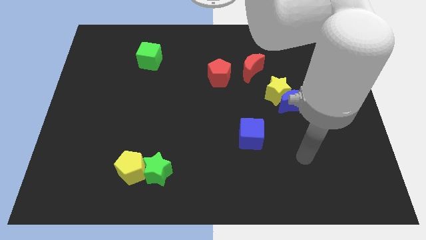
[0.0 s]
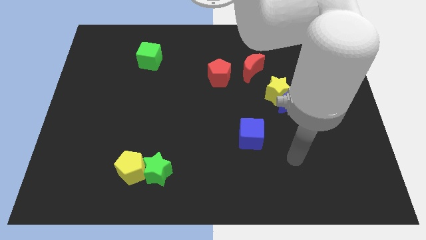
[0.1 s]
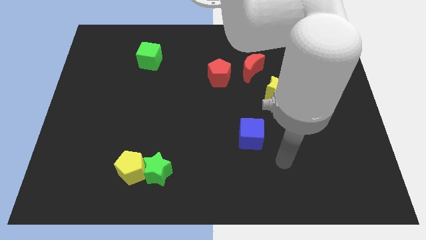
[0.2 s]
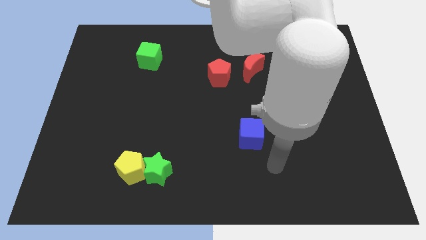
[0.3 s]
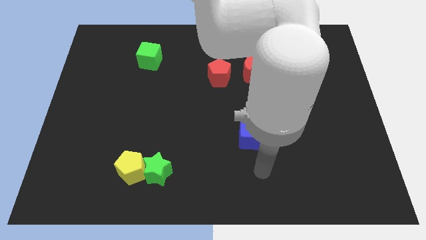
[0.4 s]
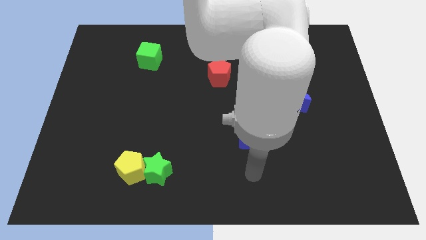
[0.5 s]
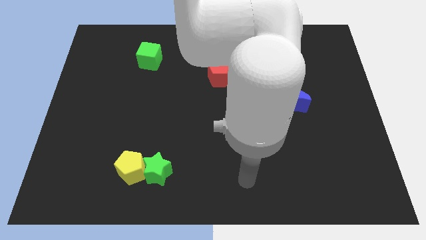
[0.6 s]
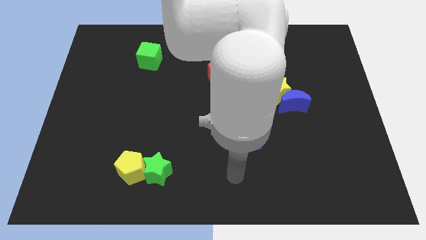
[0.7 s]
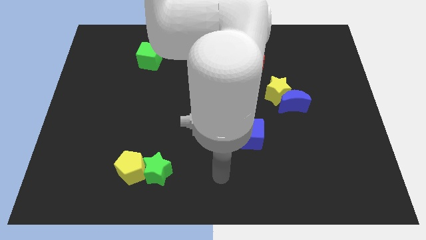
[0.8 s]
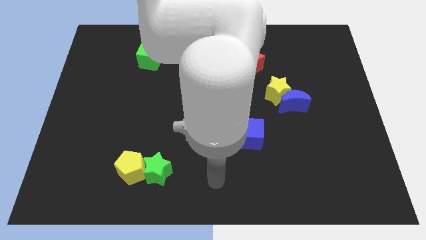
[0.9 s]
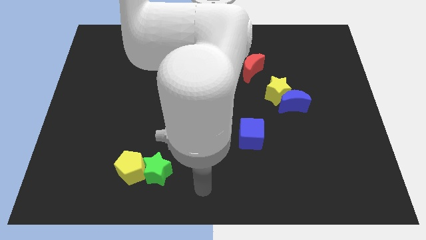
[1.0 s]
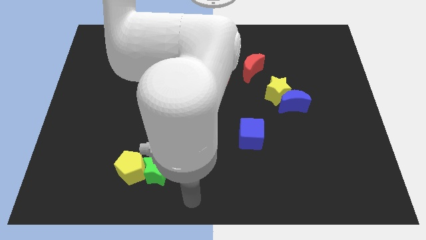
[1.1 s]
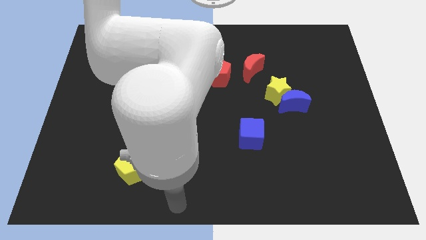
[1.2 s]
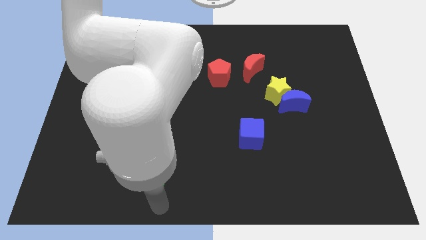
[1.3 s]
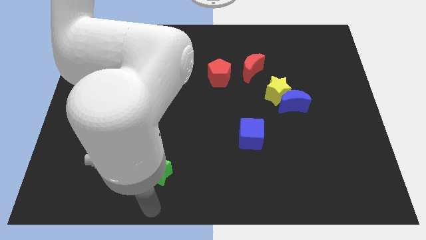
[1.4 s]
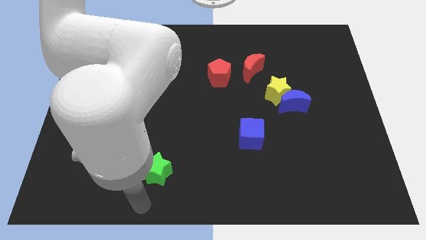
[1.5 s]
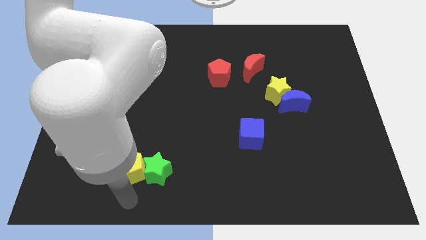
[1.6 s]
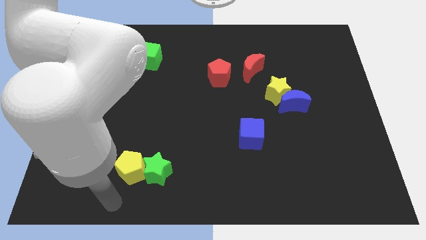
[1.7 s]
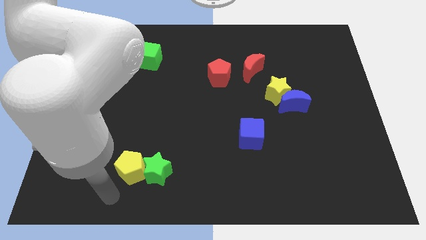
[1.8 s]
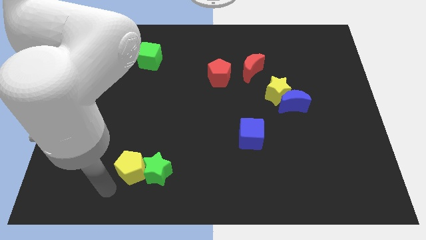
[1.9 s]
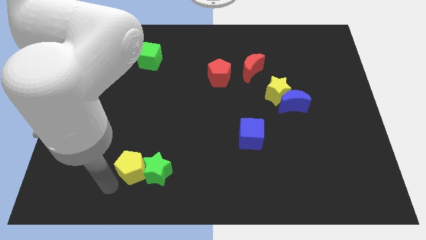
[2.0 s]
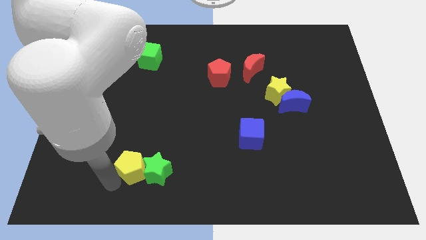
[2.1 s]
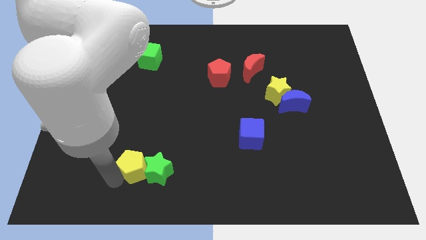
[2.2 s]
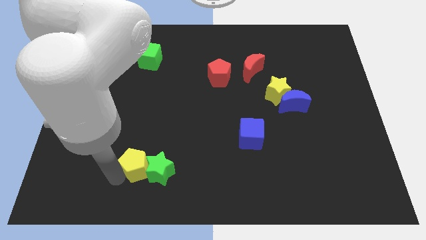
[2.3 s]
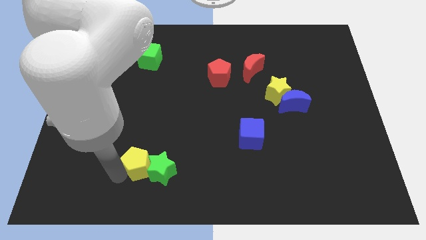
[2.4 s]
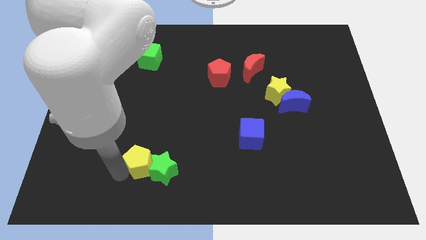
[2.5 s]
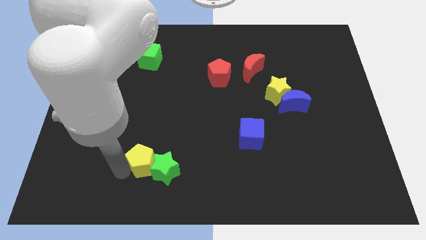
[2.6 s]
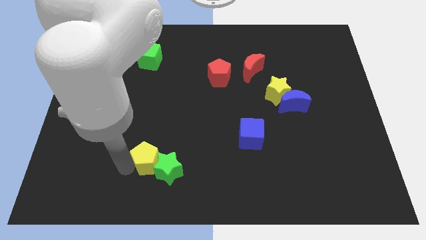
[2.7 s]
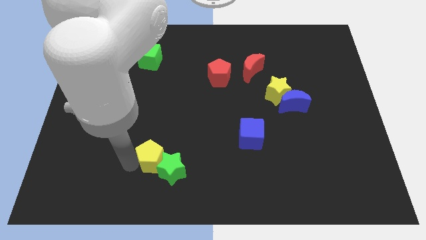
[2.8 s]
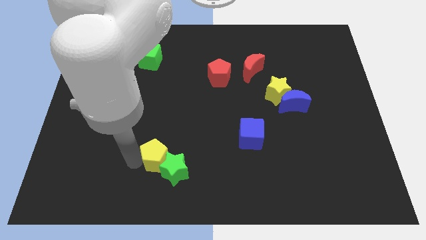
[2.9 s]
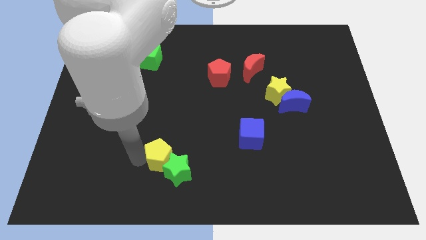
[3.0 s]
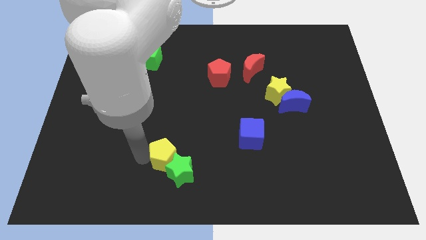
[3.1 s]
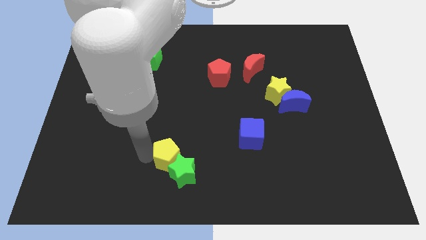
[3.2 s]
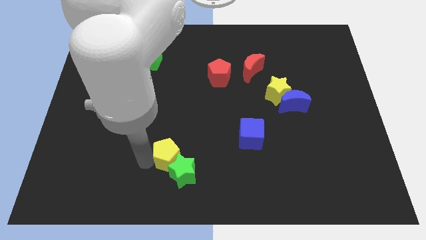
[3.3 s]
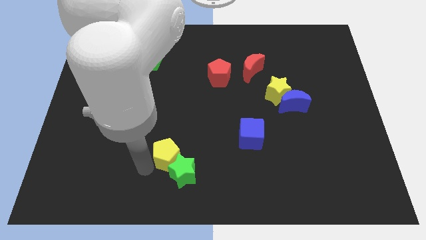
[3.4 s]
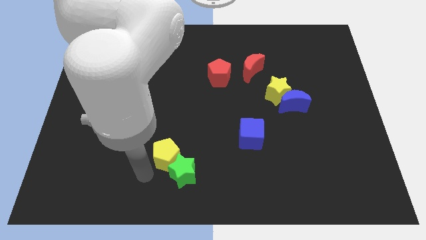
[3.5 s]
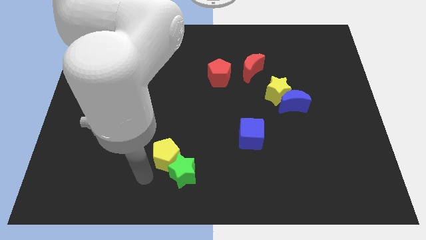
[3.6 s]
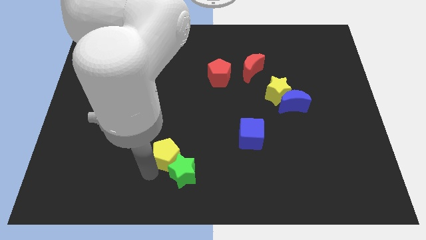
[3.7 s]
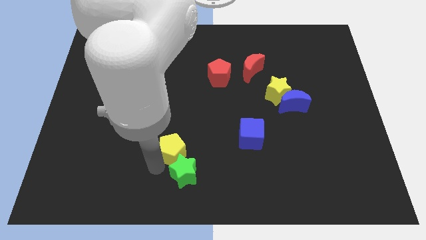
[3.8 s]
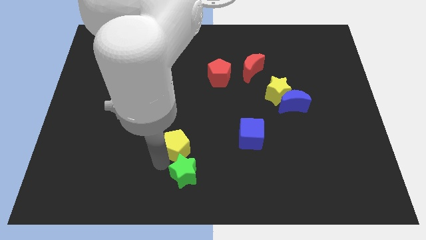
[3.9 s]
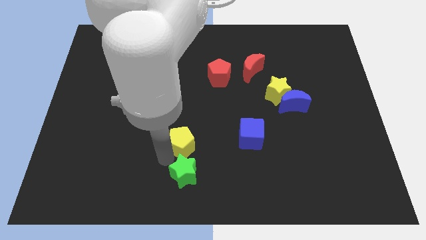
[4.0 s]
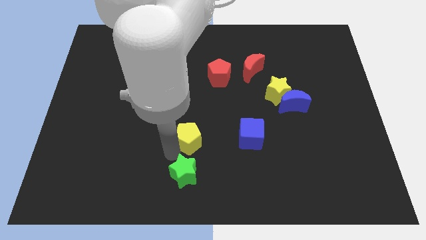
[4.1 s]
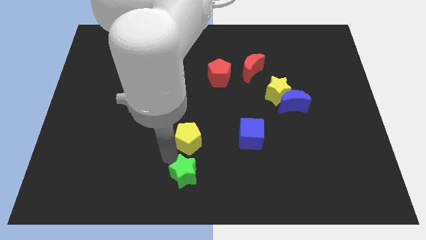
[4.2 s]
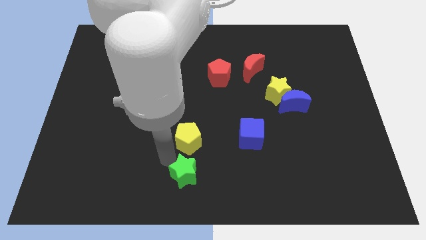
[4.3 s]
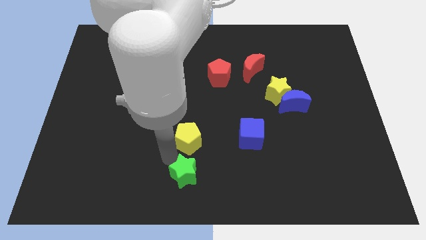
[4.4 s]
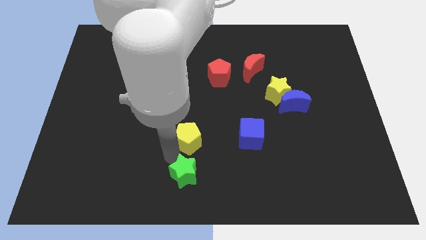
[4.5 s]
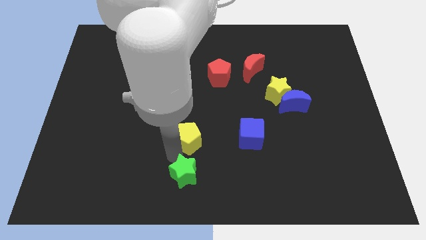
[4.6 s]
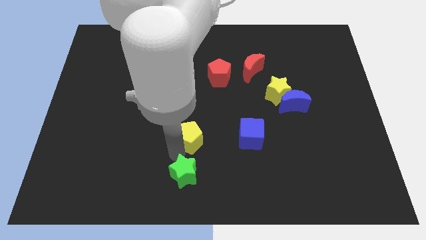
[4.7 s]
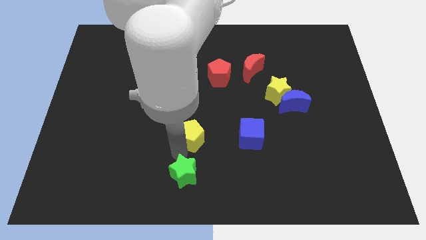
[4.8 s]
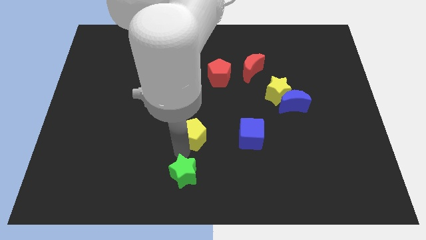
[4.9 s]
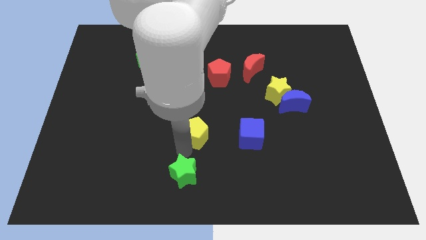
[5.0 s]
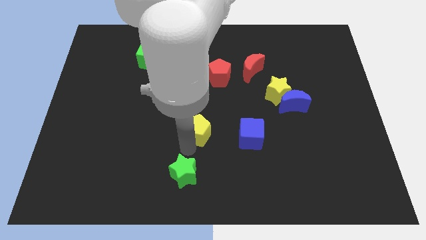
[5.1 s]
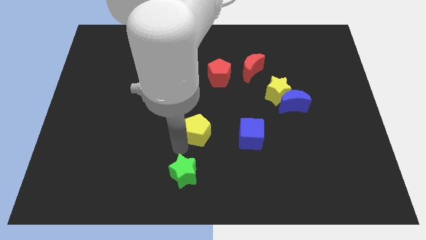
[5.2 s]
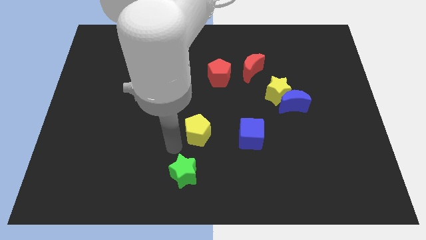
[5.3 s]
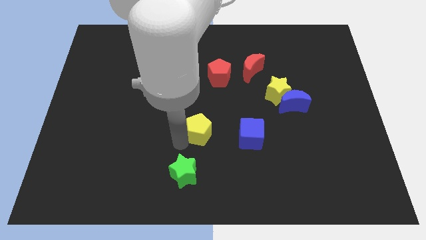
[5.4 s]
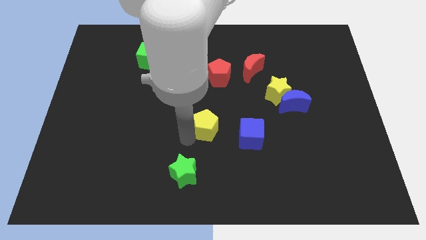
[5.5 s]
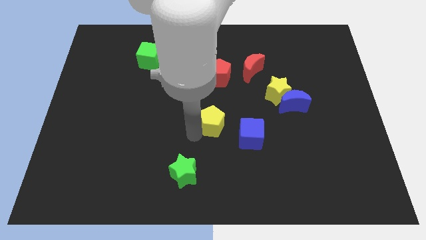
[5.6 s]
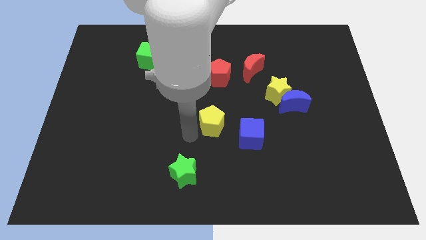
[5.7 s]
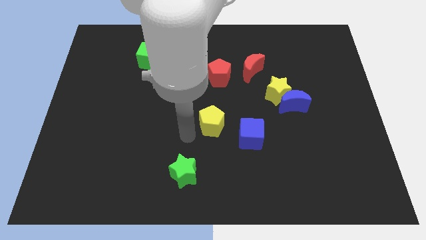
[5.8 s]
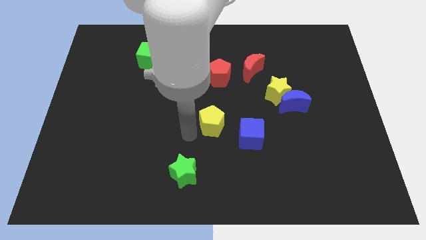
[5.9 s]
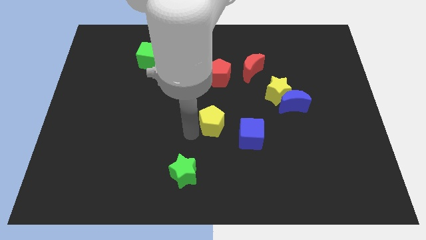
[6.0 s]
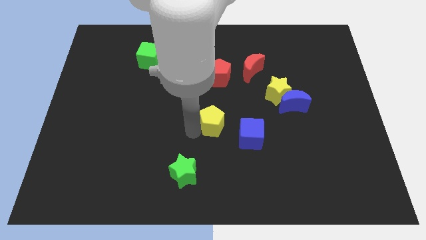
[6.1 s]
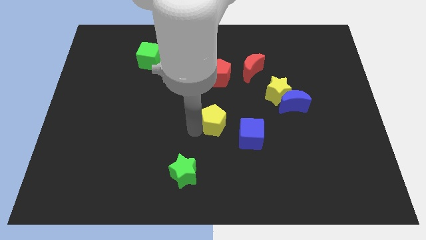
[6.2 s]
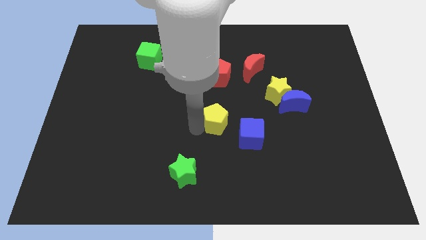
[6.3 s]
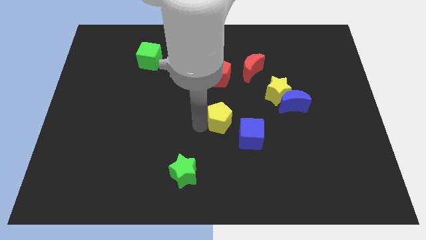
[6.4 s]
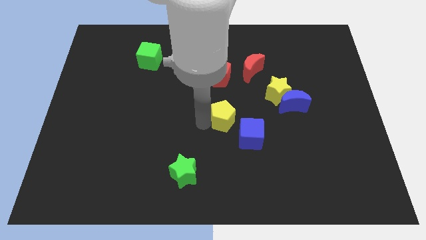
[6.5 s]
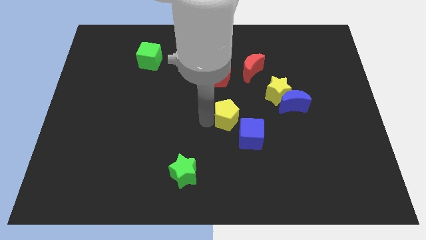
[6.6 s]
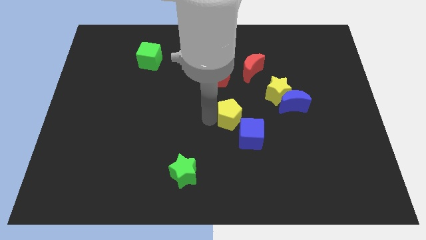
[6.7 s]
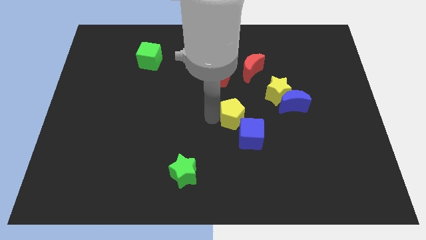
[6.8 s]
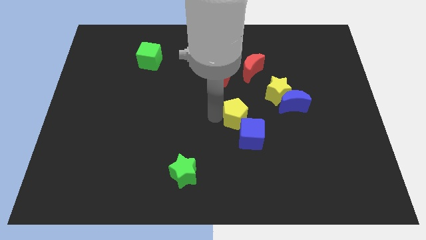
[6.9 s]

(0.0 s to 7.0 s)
put the yellow pentagon diagonally down and to the left of the yellow star
